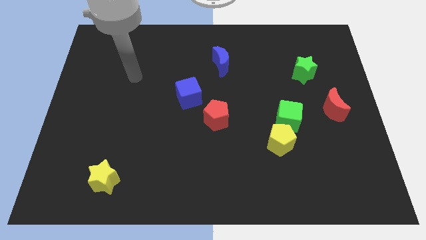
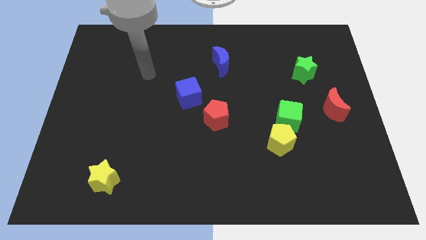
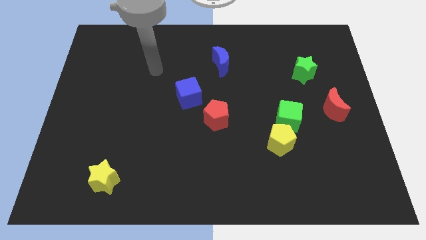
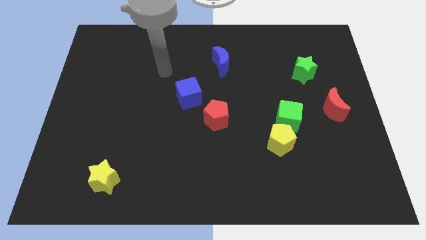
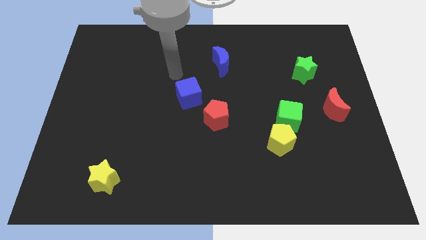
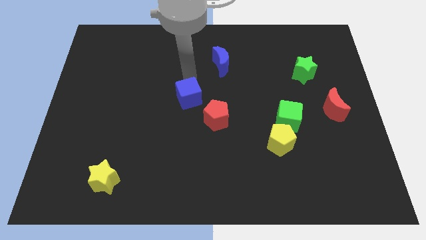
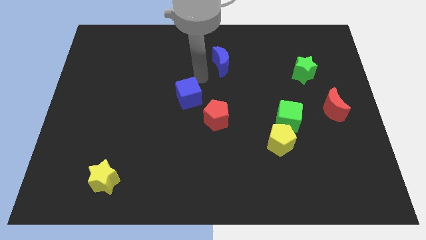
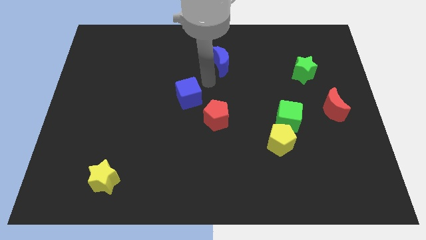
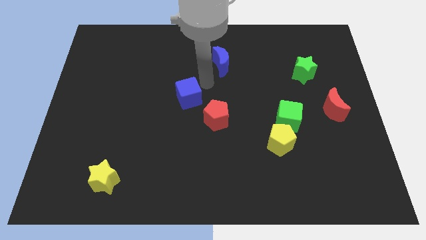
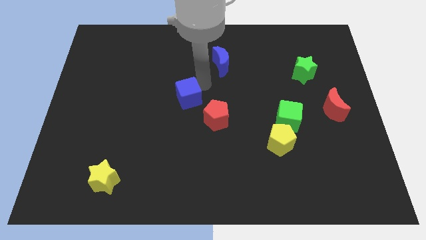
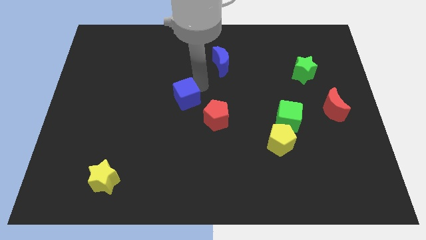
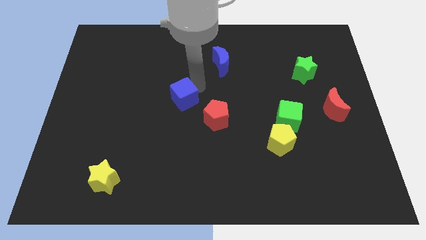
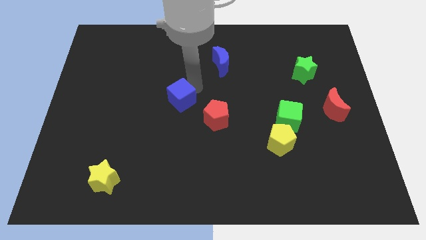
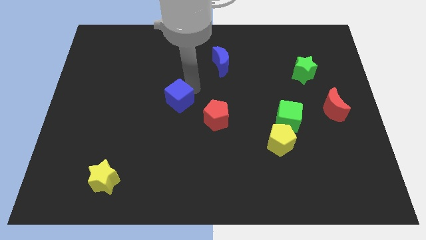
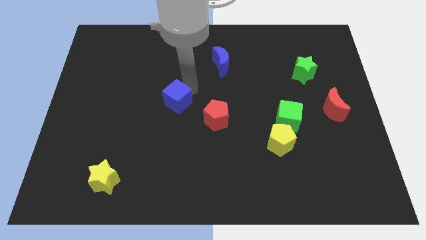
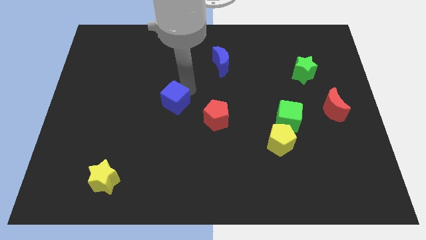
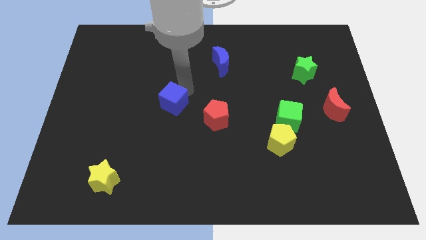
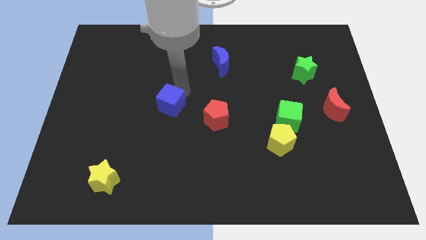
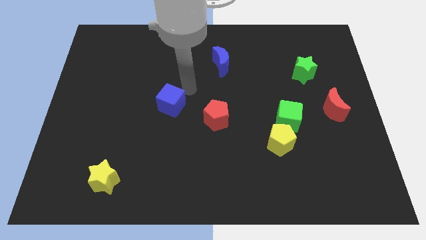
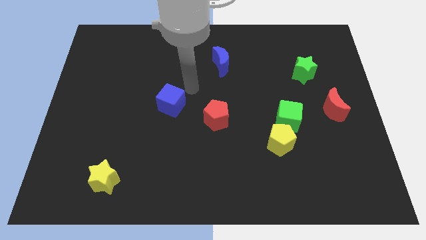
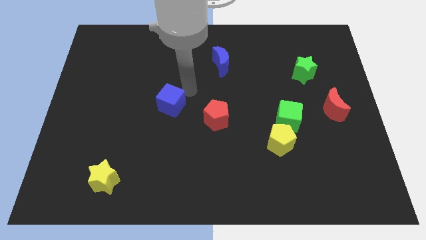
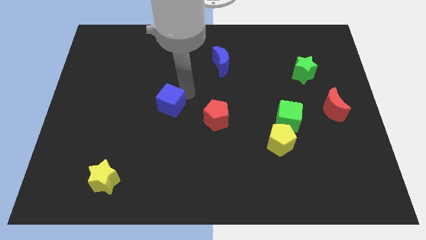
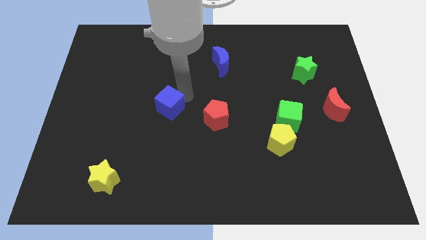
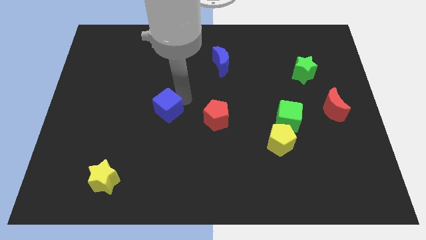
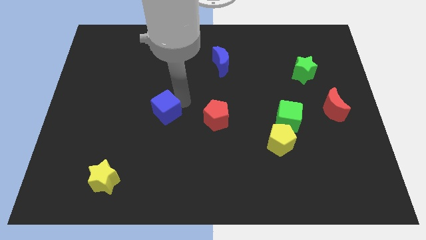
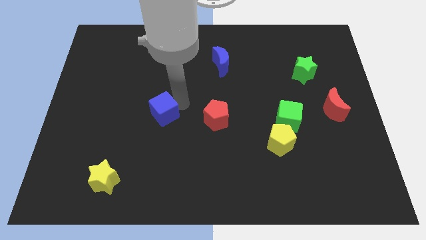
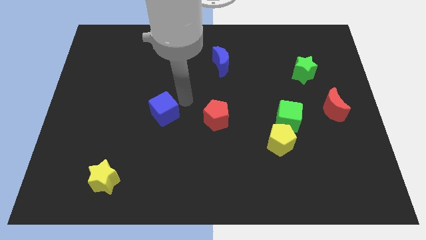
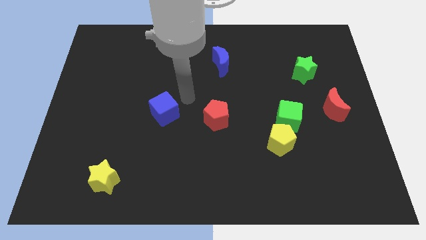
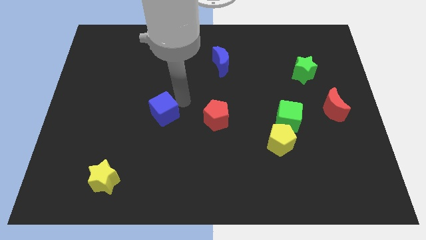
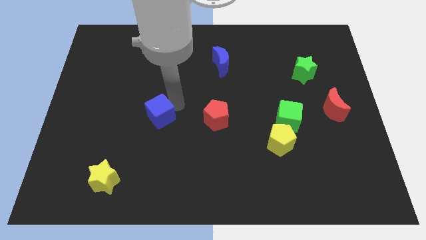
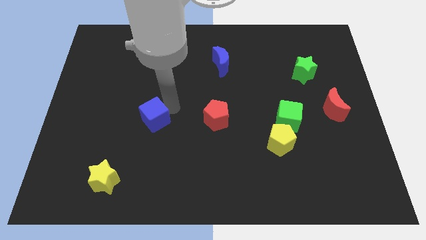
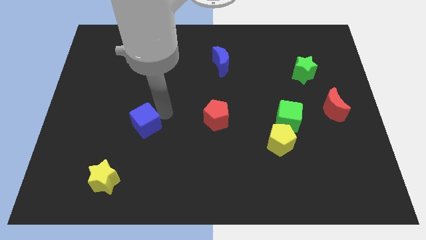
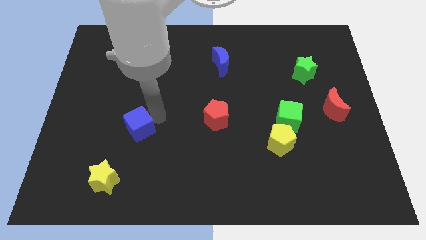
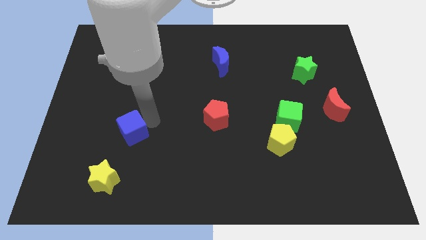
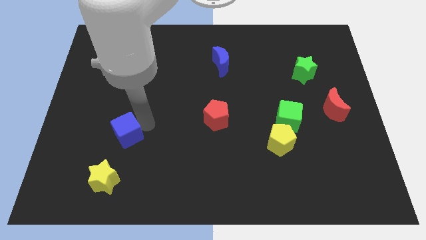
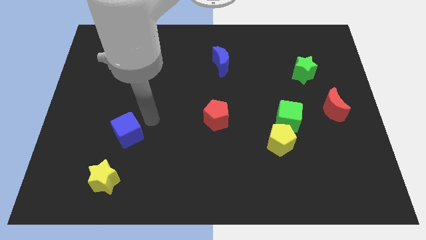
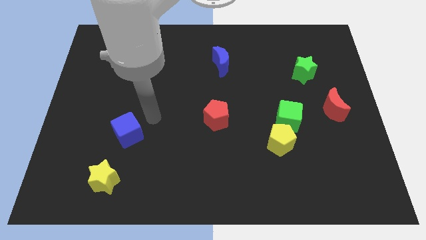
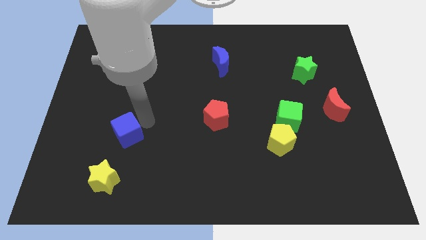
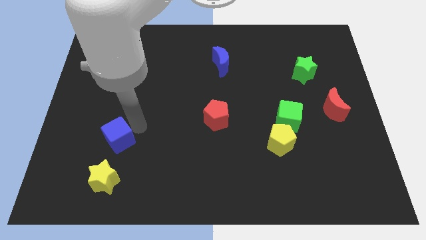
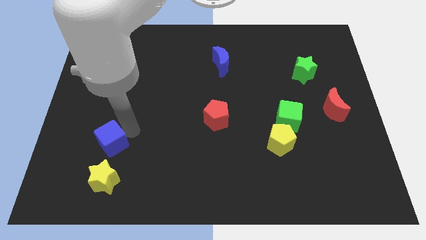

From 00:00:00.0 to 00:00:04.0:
push the blue cube down and left

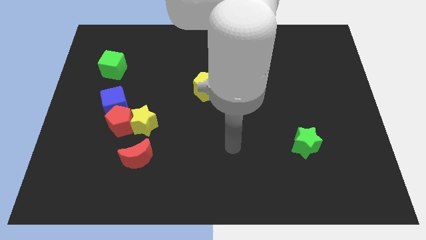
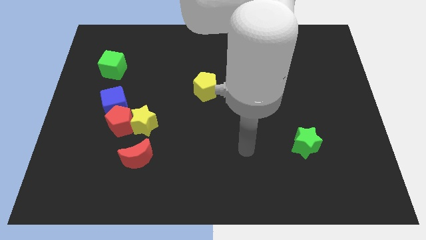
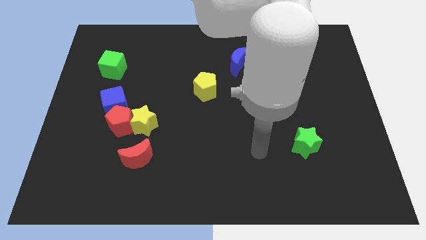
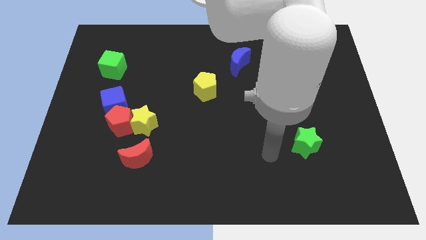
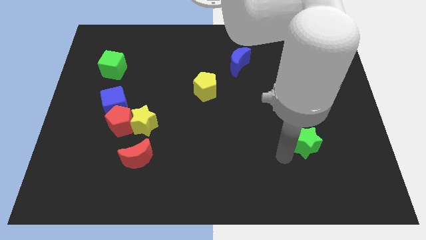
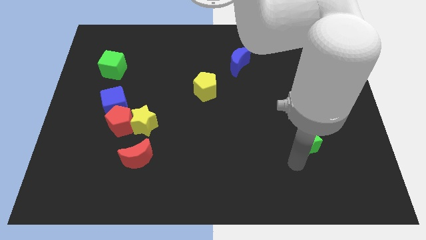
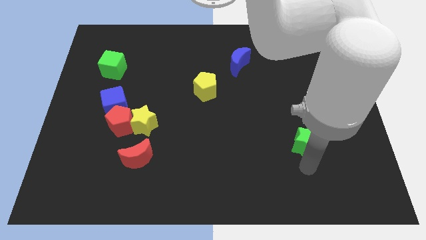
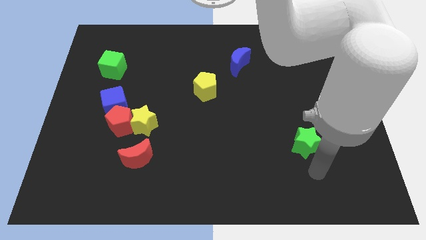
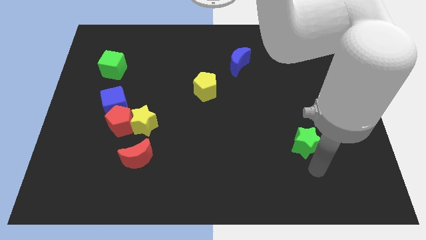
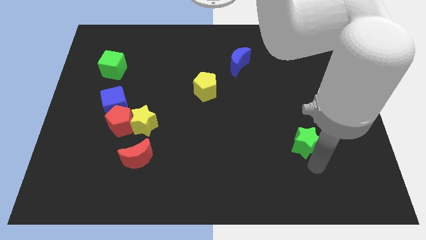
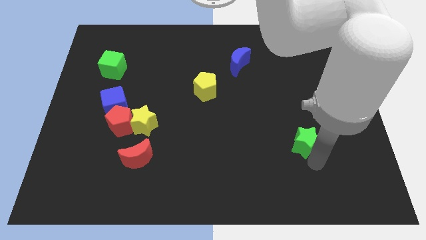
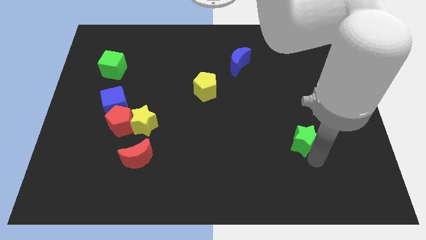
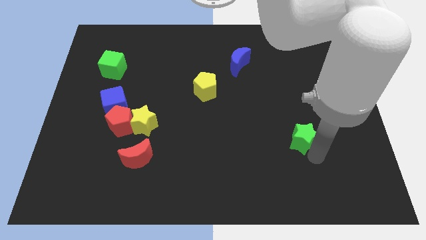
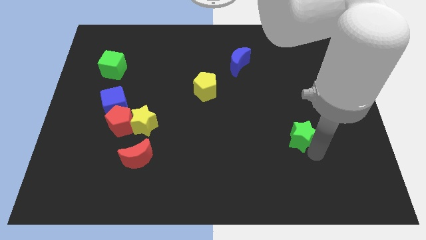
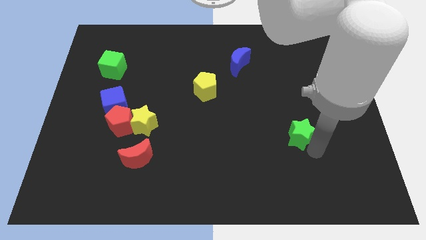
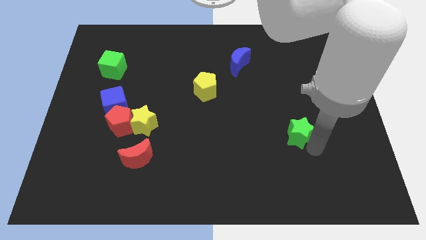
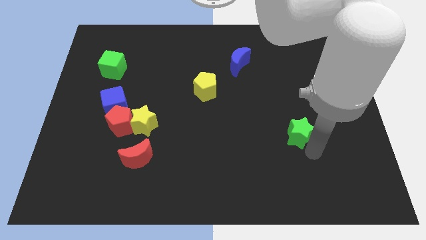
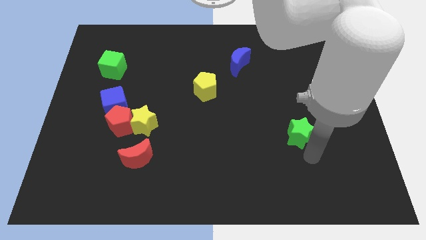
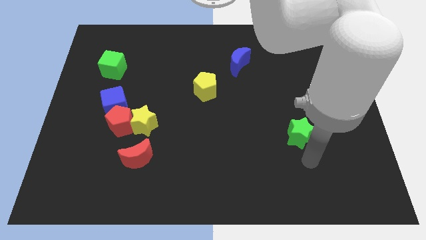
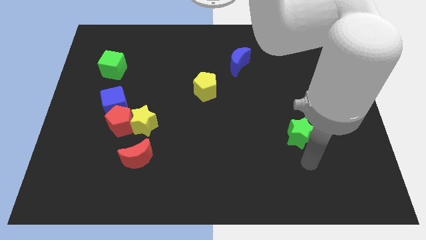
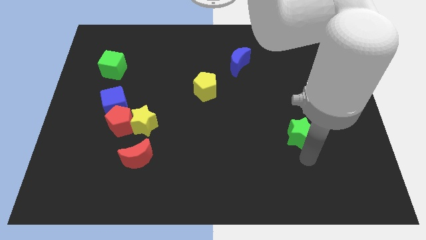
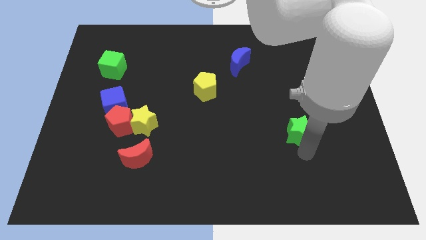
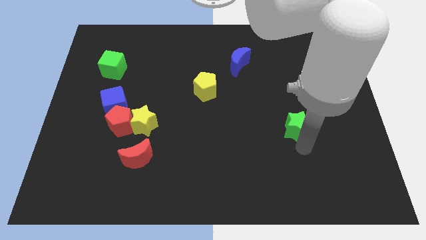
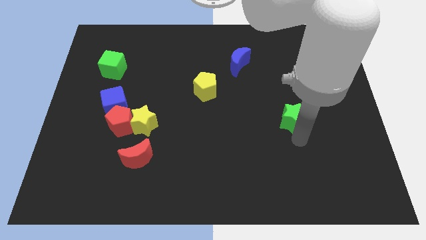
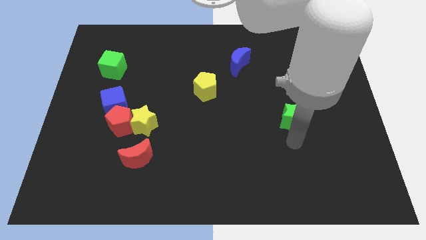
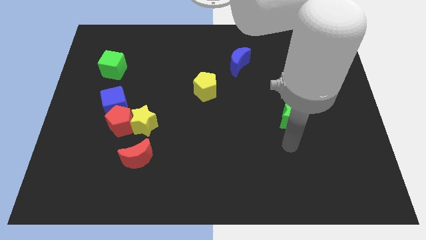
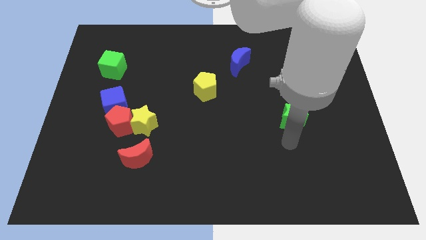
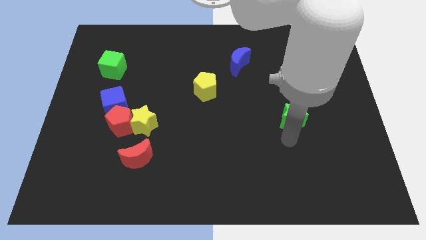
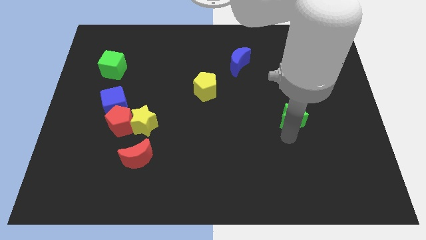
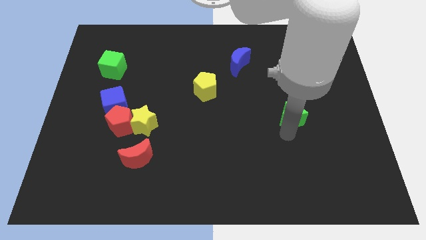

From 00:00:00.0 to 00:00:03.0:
slightly push the green star up

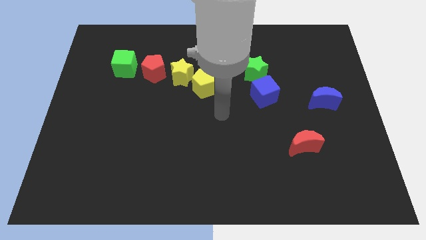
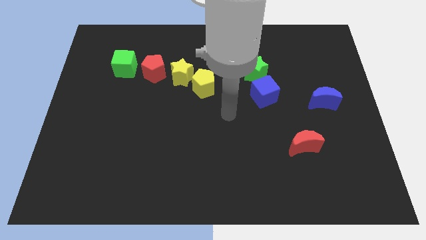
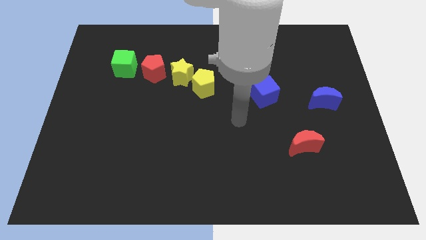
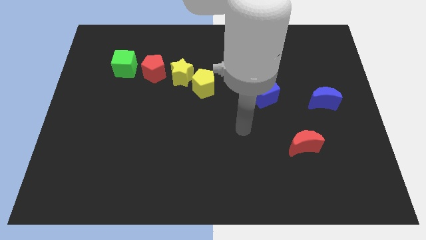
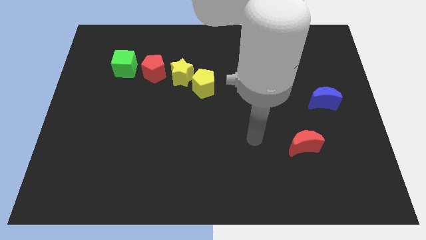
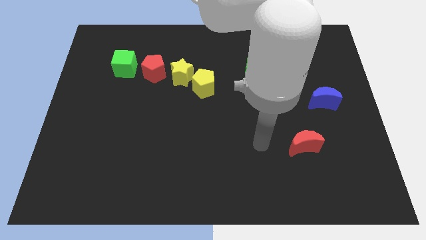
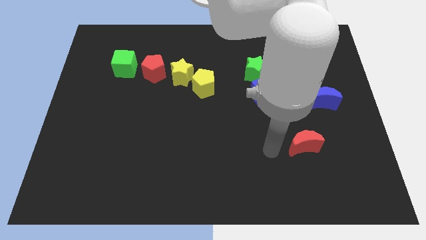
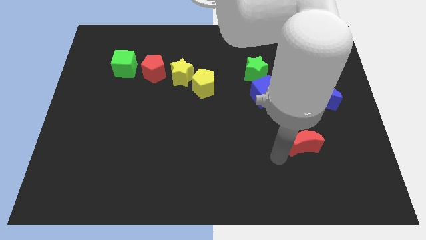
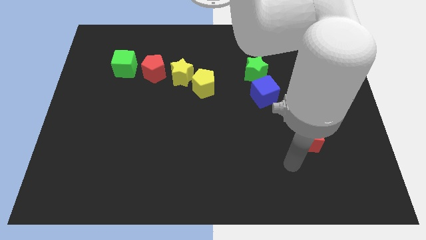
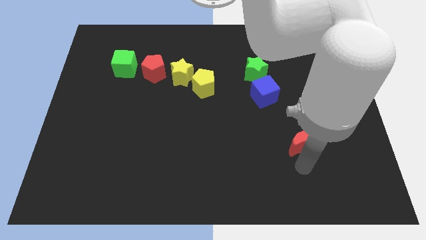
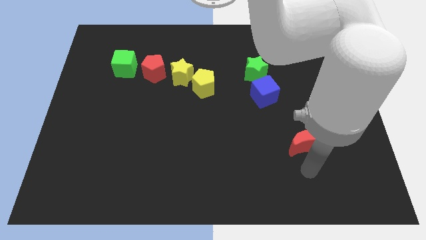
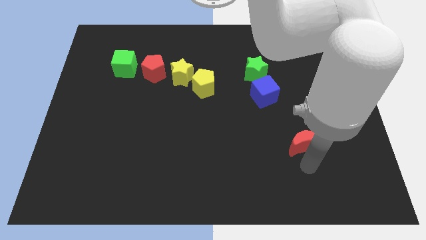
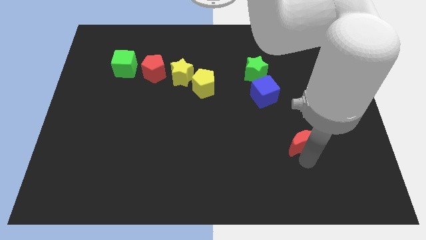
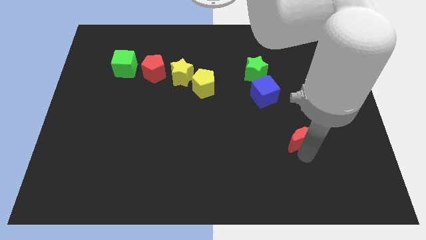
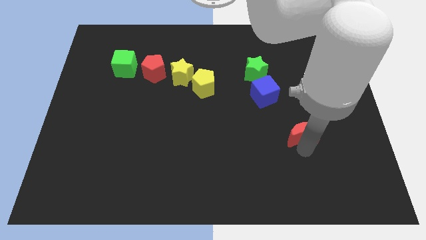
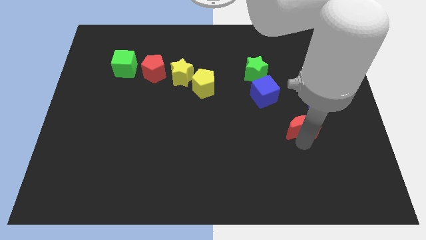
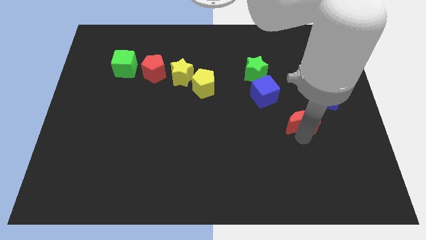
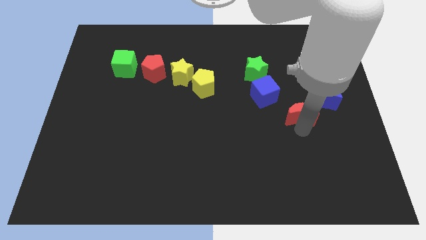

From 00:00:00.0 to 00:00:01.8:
push the red moon up a bit
